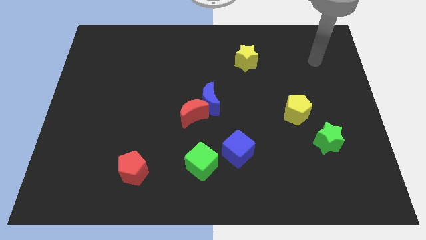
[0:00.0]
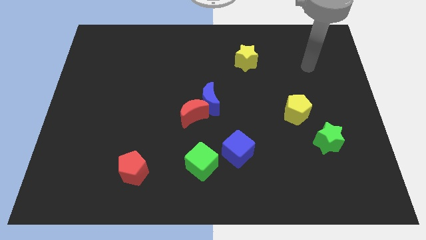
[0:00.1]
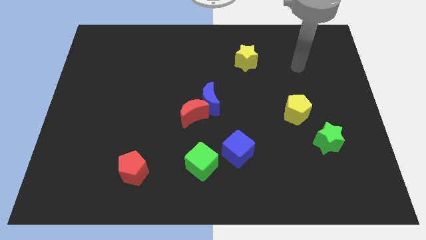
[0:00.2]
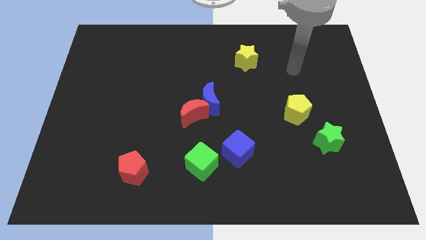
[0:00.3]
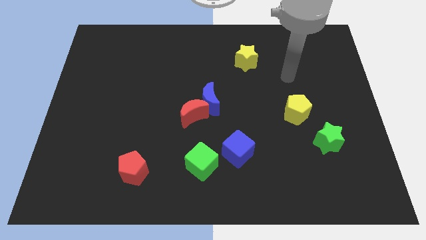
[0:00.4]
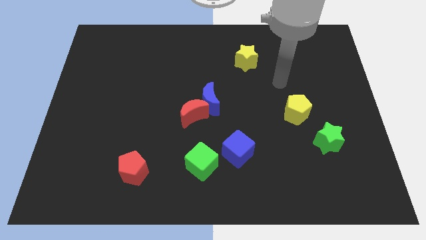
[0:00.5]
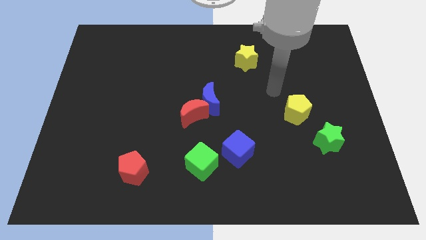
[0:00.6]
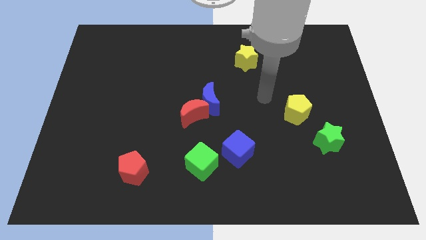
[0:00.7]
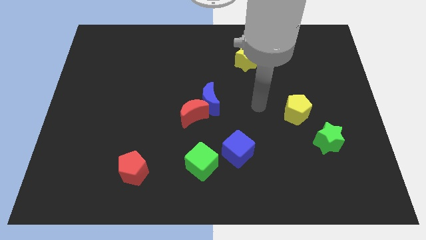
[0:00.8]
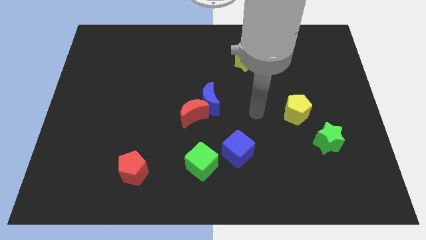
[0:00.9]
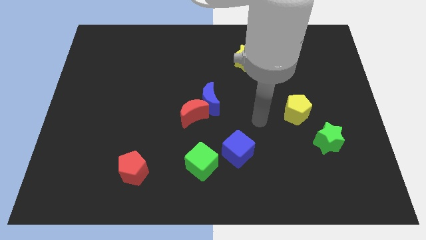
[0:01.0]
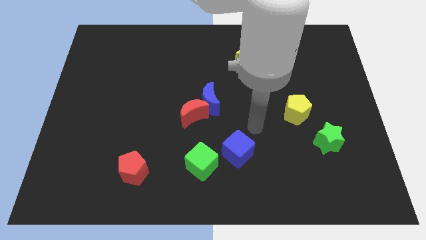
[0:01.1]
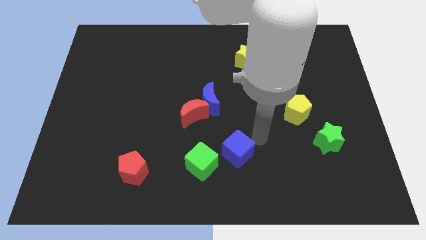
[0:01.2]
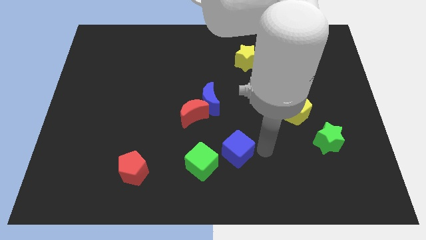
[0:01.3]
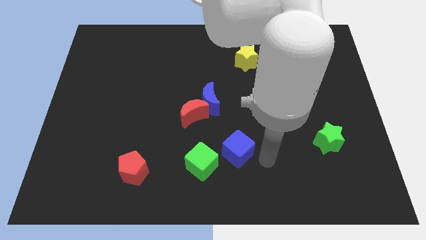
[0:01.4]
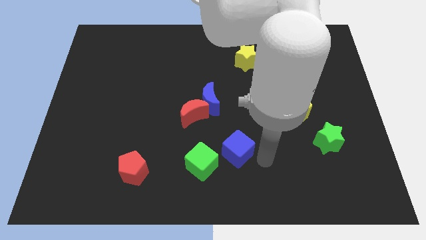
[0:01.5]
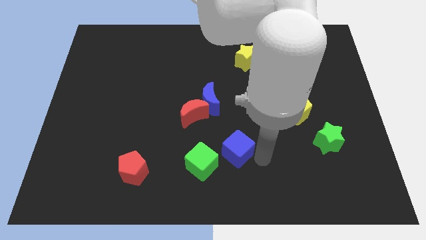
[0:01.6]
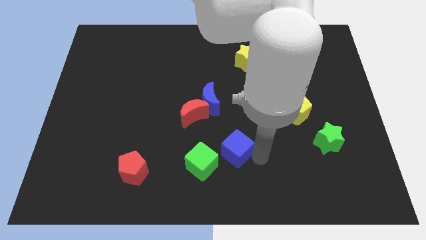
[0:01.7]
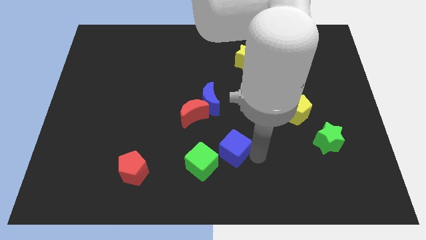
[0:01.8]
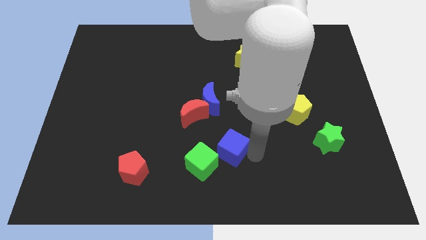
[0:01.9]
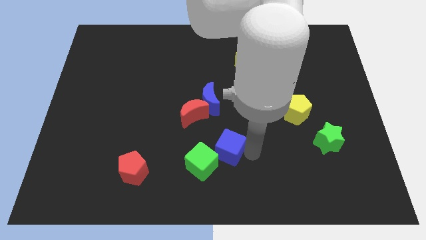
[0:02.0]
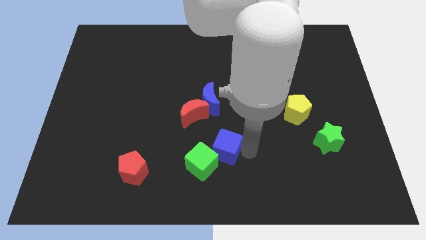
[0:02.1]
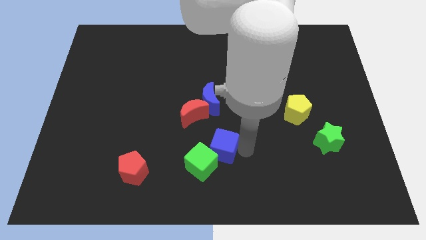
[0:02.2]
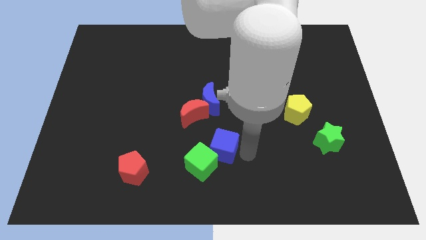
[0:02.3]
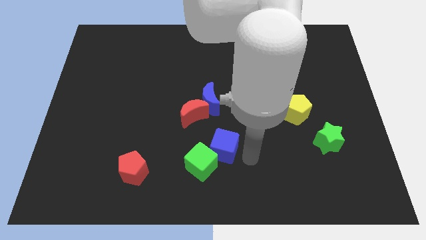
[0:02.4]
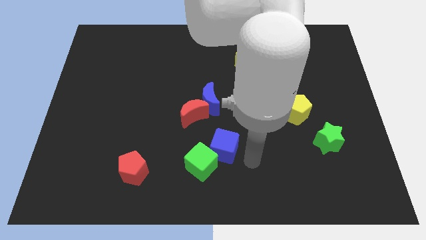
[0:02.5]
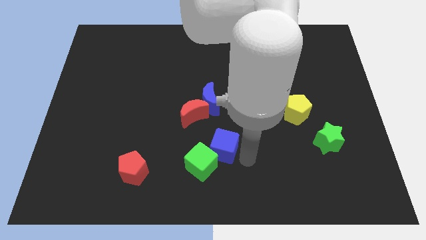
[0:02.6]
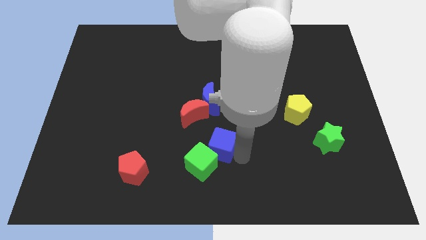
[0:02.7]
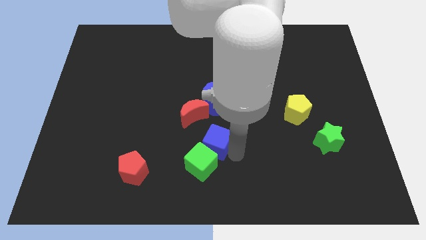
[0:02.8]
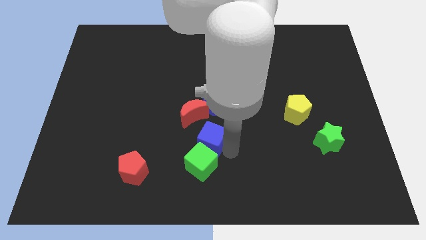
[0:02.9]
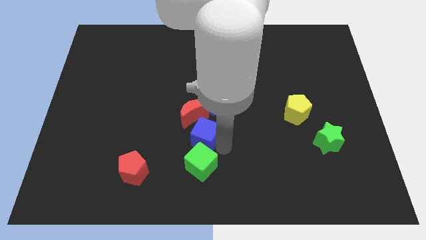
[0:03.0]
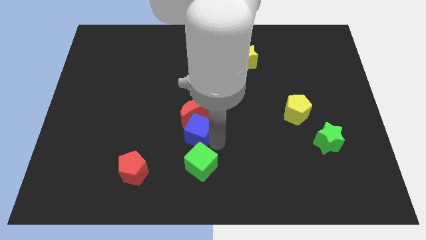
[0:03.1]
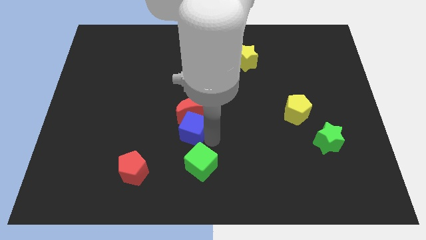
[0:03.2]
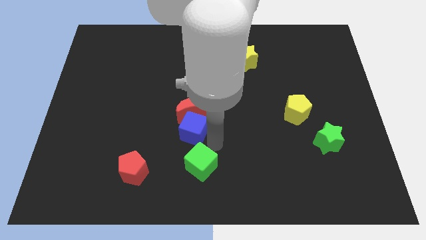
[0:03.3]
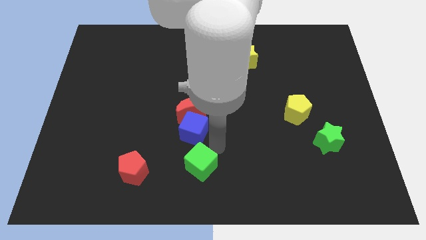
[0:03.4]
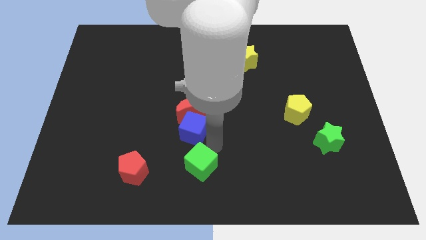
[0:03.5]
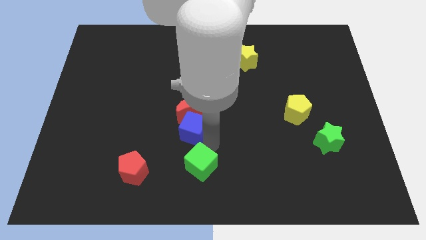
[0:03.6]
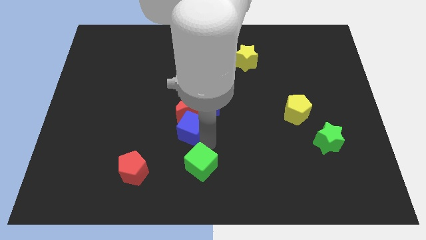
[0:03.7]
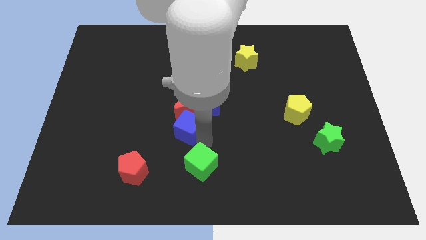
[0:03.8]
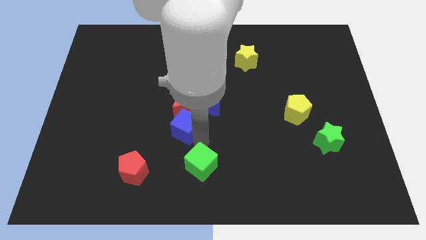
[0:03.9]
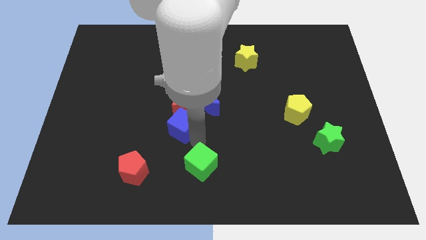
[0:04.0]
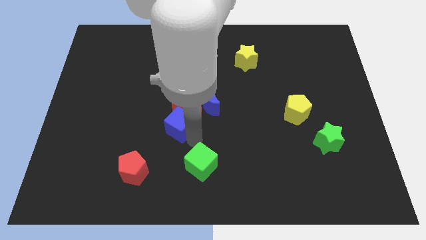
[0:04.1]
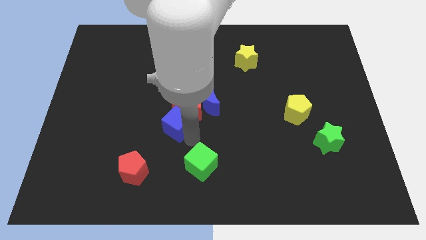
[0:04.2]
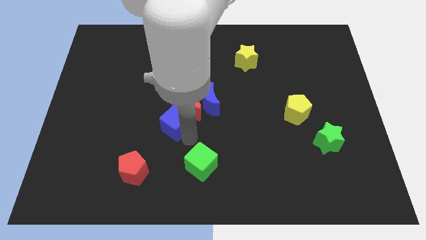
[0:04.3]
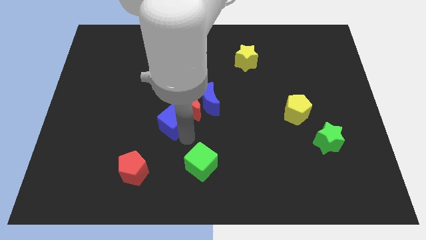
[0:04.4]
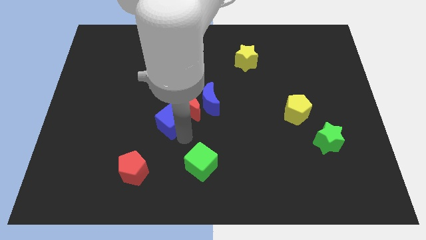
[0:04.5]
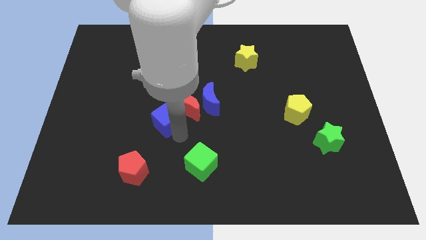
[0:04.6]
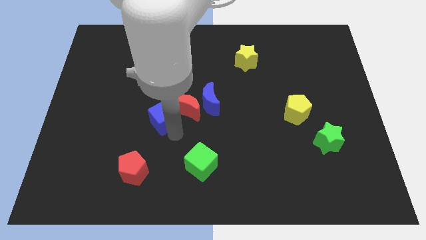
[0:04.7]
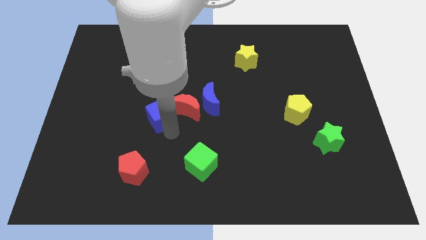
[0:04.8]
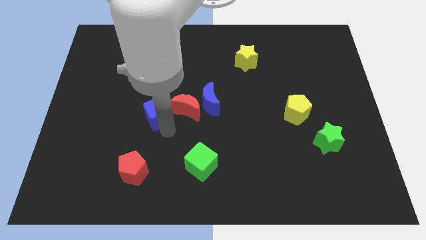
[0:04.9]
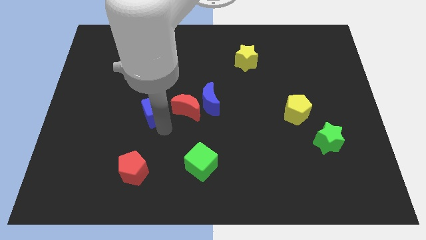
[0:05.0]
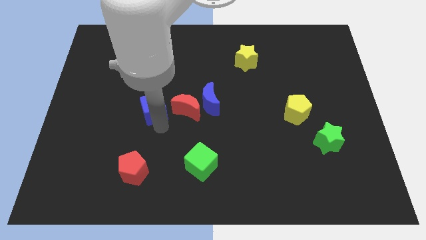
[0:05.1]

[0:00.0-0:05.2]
push the blue cube up and left

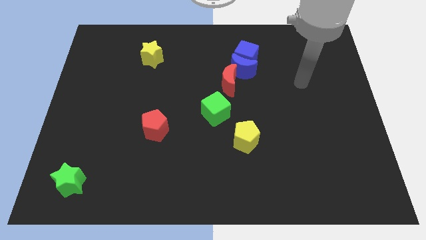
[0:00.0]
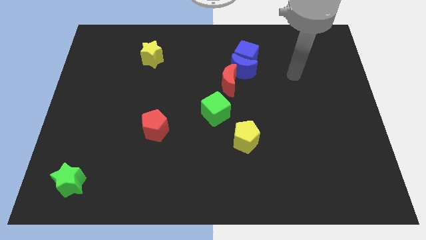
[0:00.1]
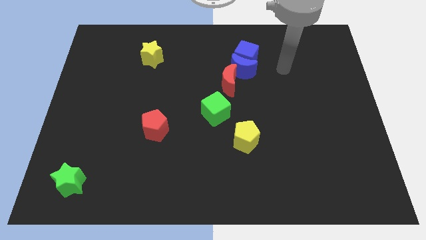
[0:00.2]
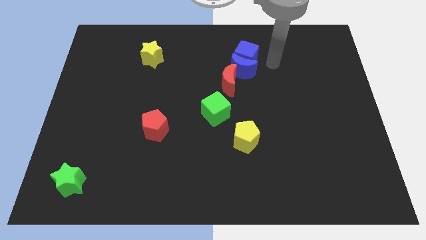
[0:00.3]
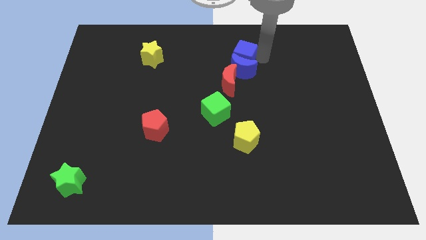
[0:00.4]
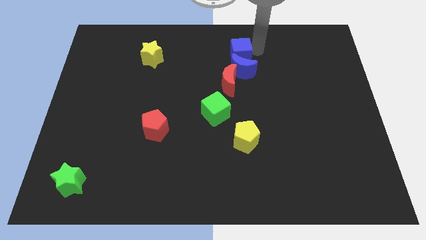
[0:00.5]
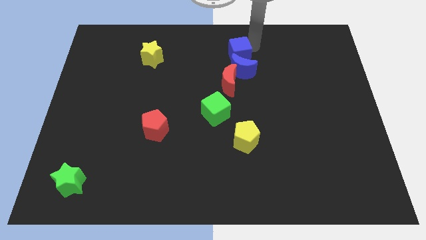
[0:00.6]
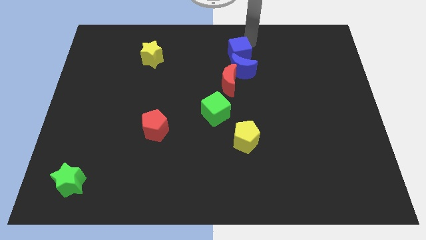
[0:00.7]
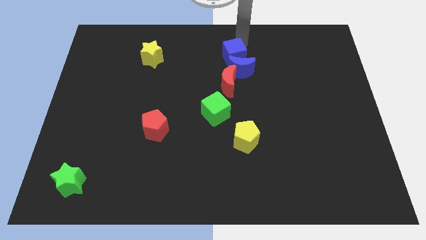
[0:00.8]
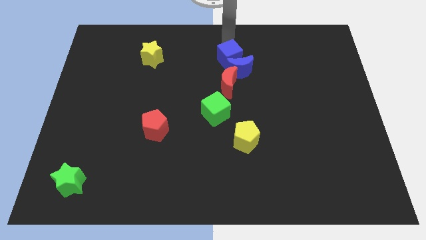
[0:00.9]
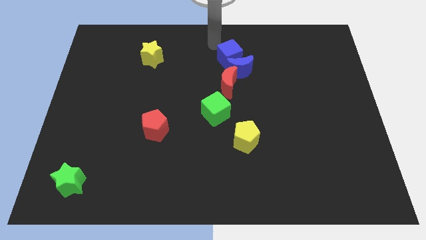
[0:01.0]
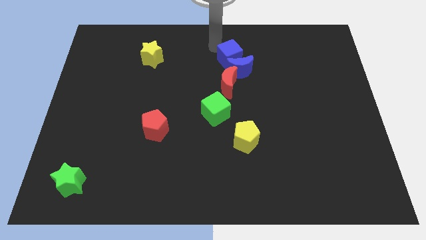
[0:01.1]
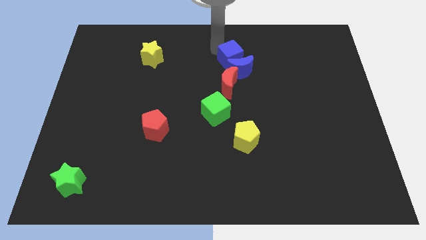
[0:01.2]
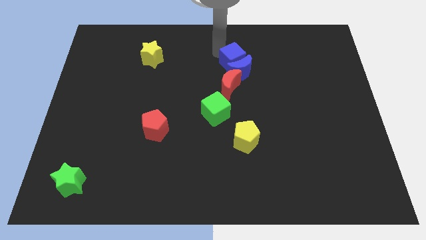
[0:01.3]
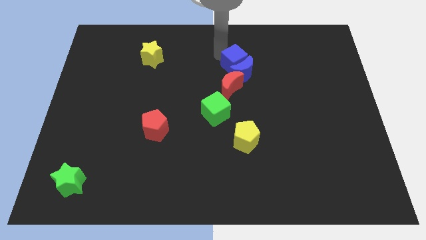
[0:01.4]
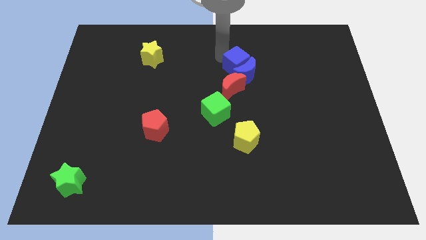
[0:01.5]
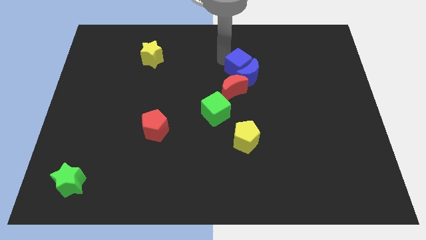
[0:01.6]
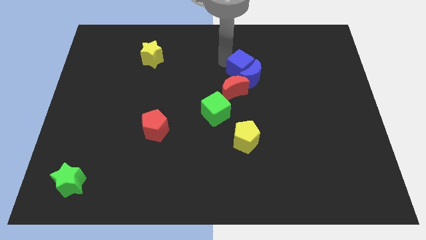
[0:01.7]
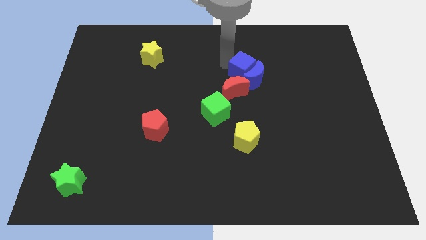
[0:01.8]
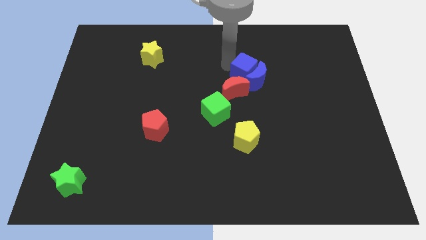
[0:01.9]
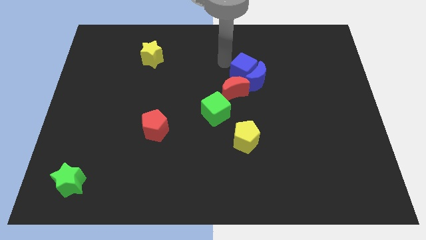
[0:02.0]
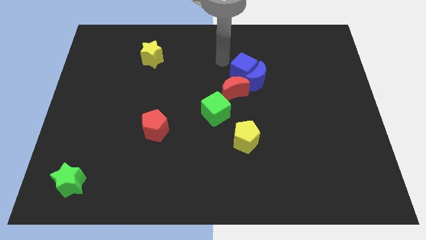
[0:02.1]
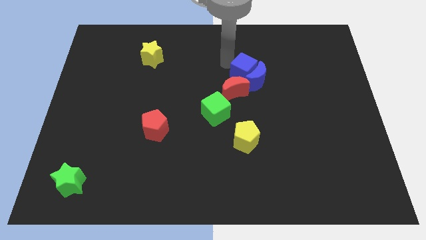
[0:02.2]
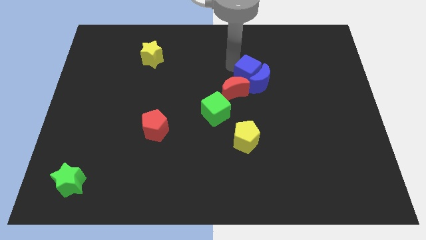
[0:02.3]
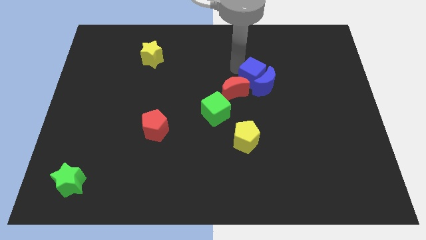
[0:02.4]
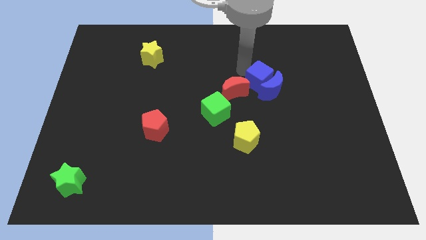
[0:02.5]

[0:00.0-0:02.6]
slightly slide the blue cube downwards

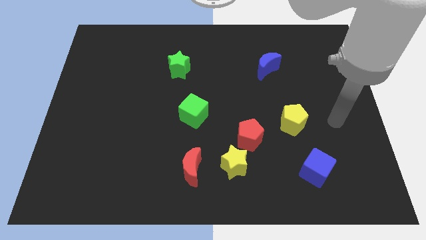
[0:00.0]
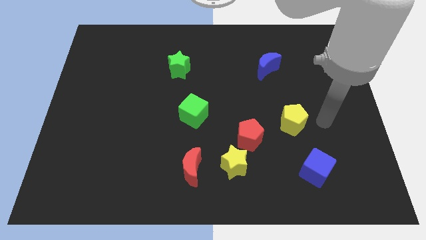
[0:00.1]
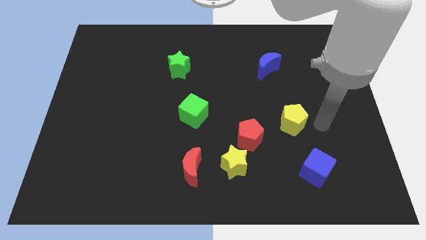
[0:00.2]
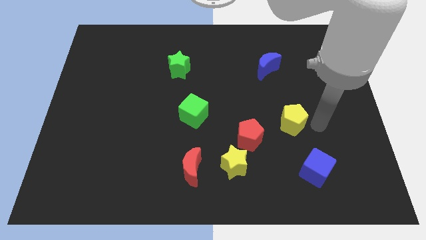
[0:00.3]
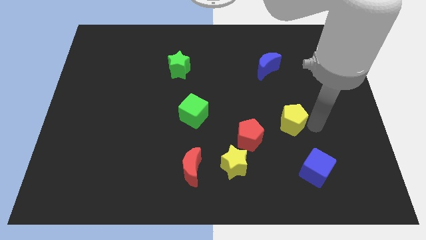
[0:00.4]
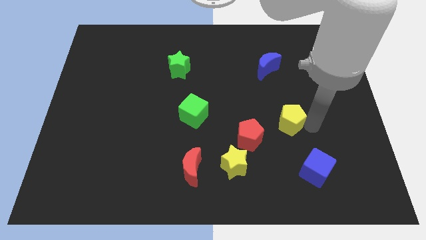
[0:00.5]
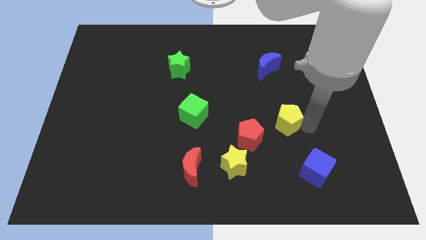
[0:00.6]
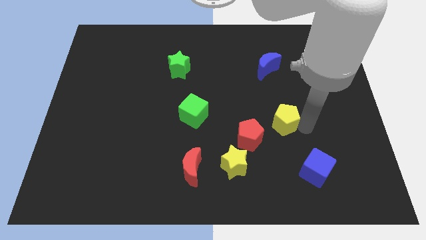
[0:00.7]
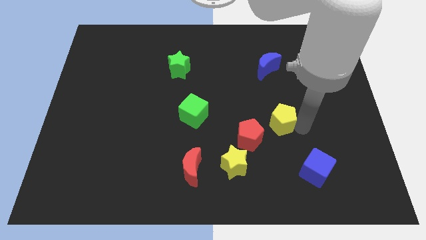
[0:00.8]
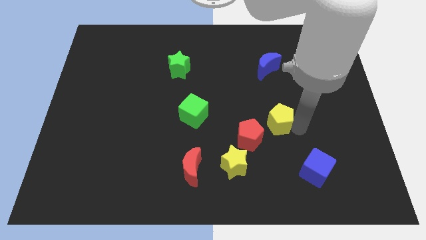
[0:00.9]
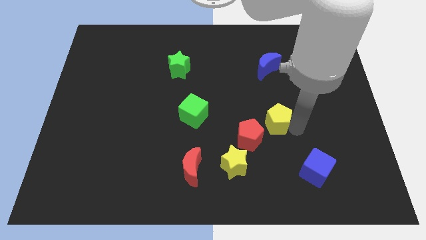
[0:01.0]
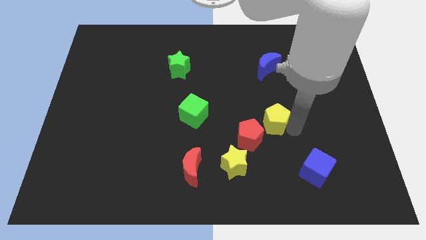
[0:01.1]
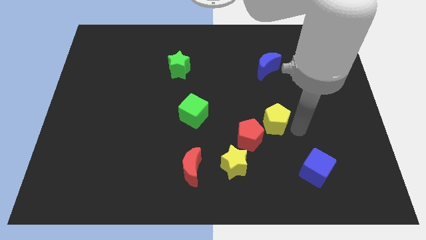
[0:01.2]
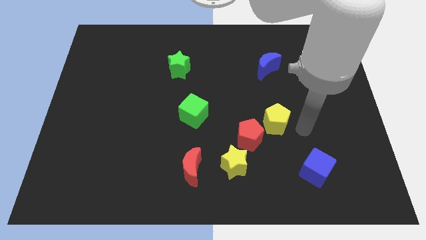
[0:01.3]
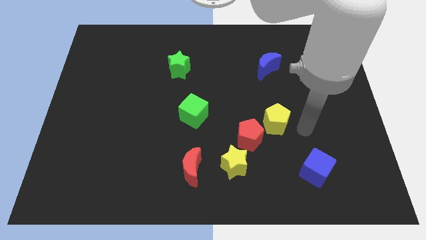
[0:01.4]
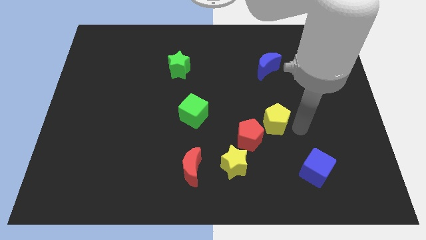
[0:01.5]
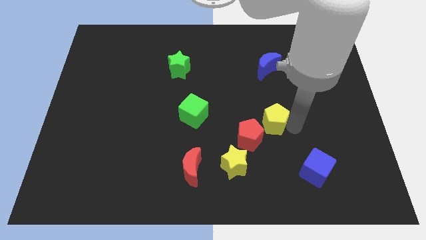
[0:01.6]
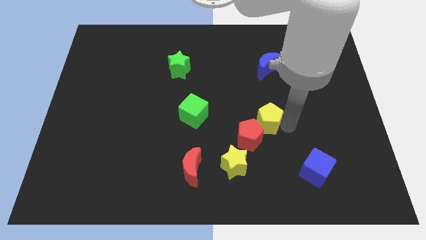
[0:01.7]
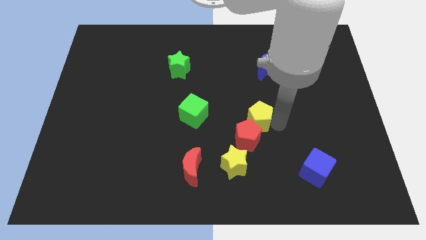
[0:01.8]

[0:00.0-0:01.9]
slide the yellow pentagon left a little
